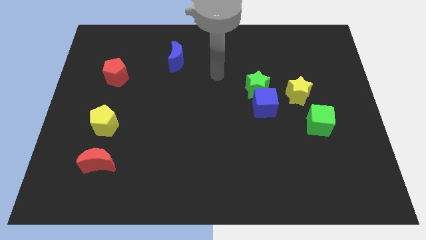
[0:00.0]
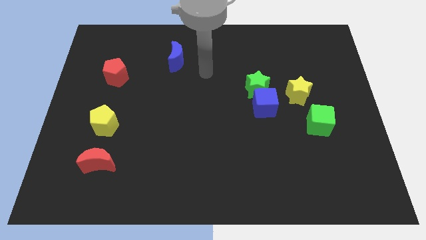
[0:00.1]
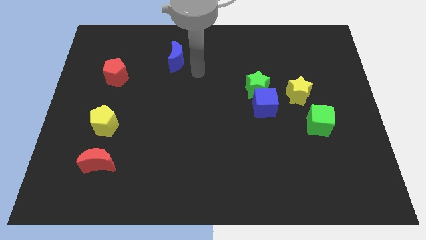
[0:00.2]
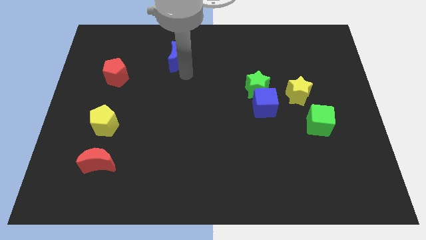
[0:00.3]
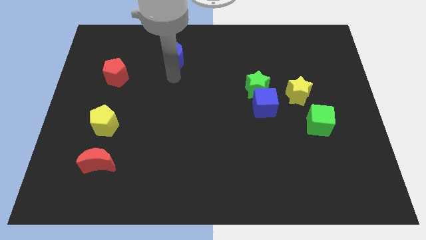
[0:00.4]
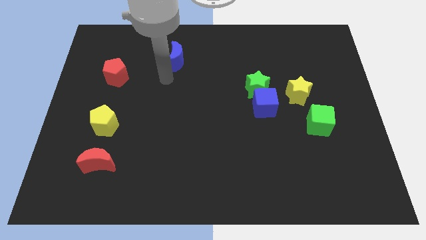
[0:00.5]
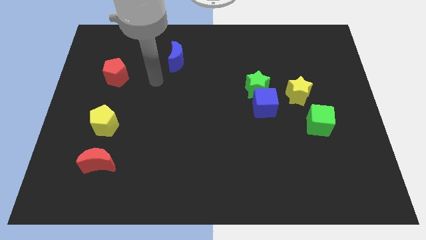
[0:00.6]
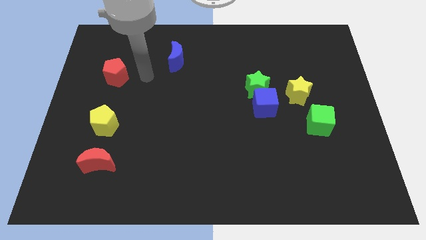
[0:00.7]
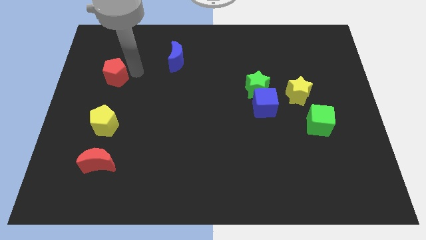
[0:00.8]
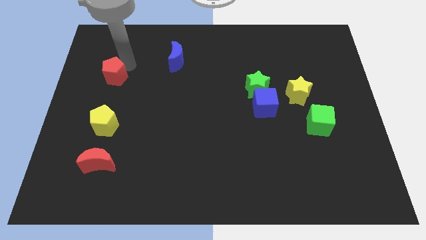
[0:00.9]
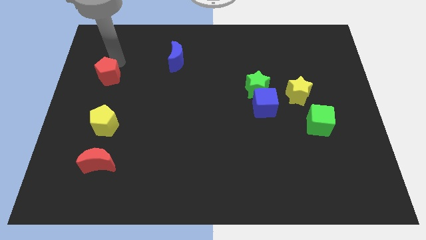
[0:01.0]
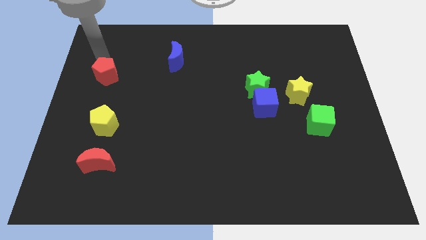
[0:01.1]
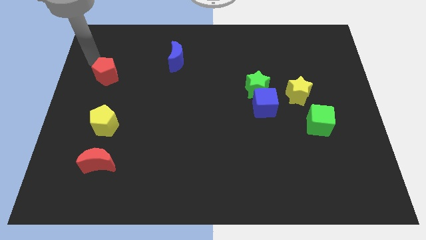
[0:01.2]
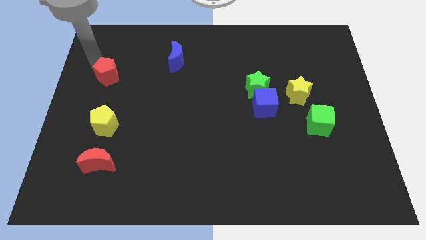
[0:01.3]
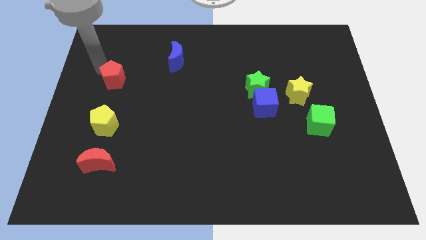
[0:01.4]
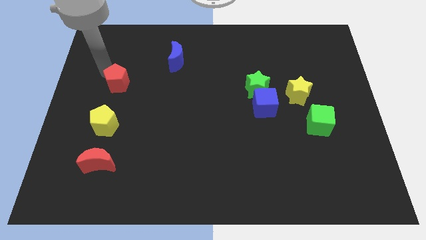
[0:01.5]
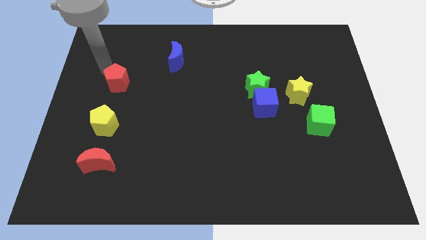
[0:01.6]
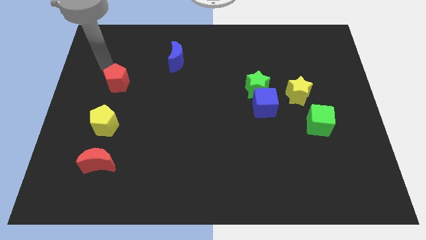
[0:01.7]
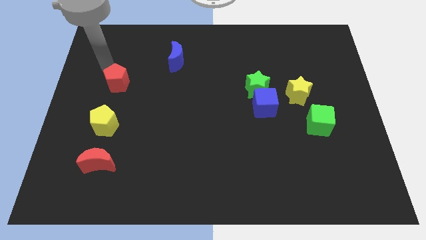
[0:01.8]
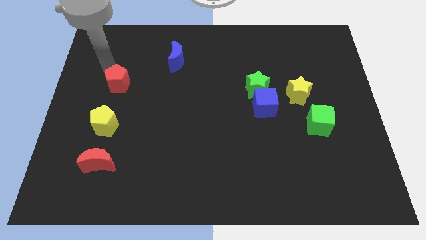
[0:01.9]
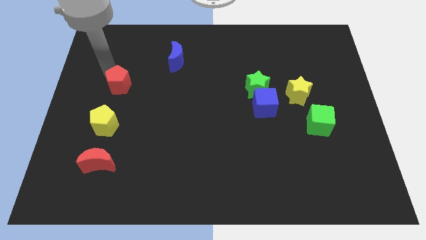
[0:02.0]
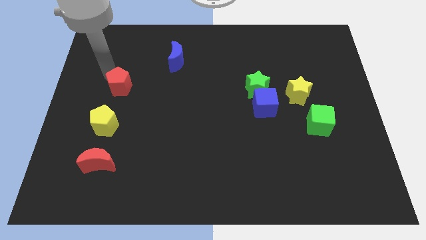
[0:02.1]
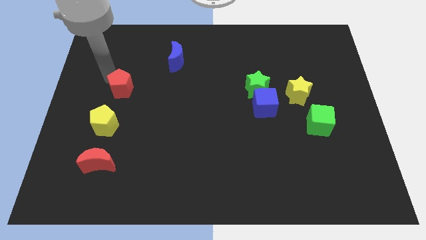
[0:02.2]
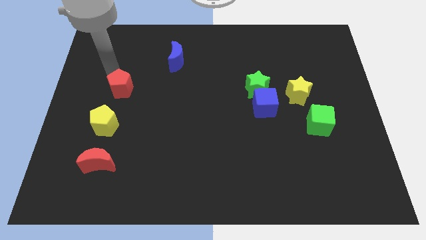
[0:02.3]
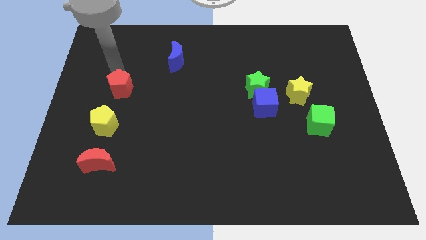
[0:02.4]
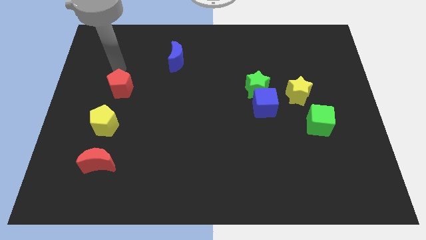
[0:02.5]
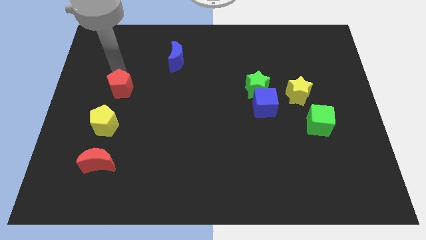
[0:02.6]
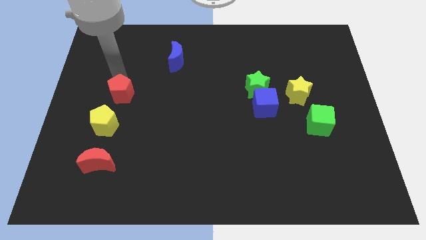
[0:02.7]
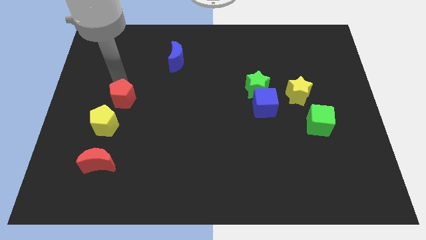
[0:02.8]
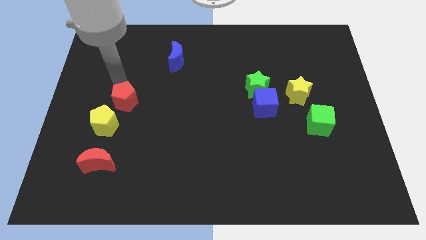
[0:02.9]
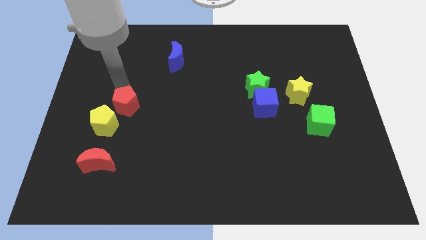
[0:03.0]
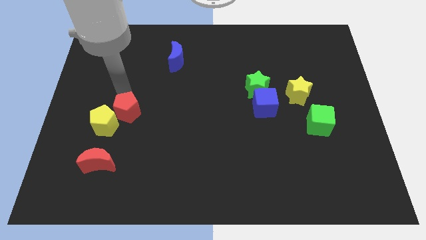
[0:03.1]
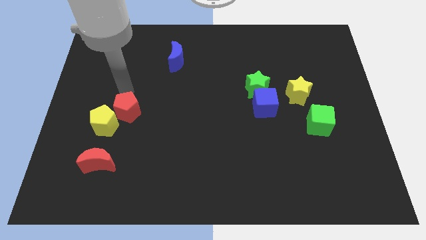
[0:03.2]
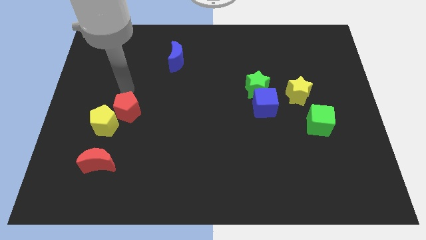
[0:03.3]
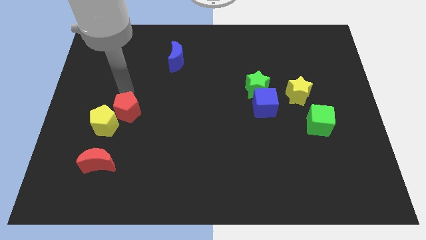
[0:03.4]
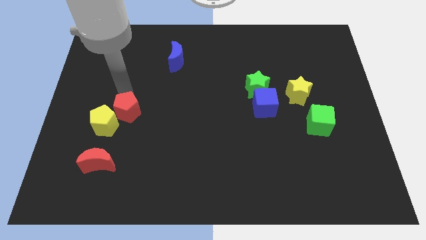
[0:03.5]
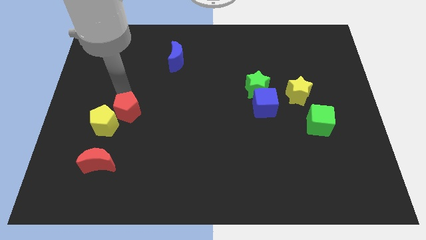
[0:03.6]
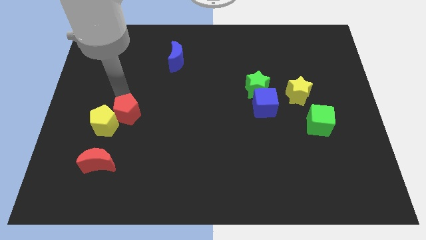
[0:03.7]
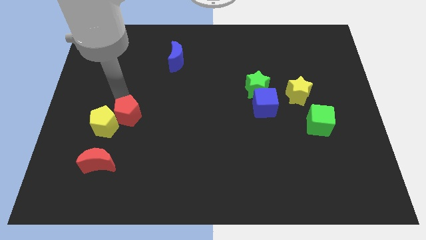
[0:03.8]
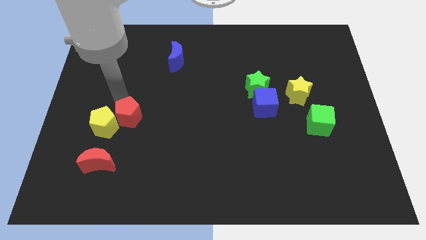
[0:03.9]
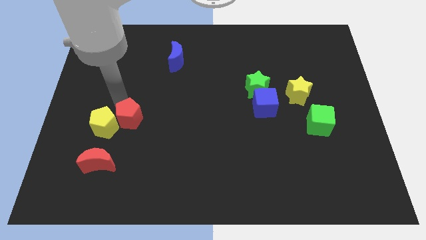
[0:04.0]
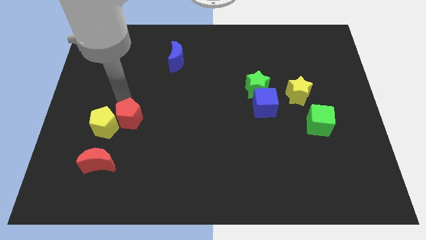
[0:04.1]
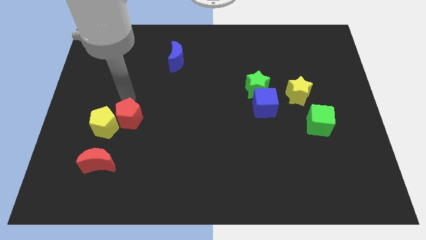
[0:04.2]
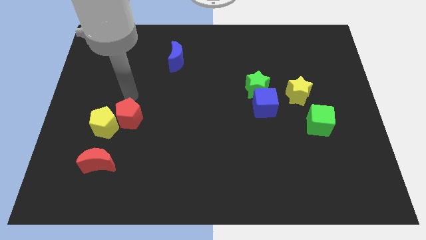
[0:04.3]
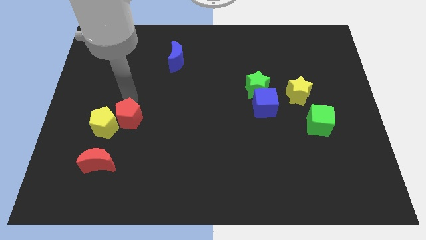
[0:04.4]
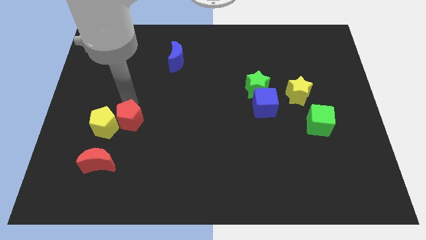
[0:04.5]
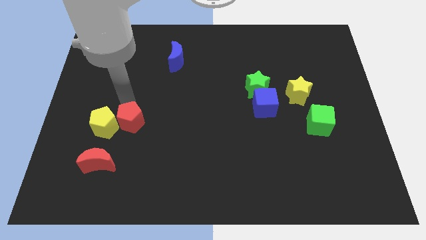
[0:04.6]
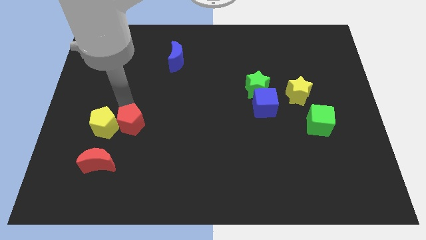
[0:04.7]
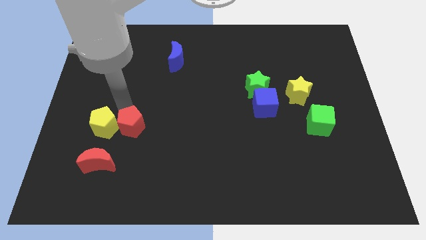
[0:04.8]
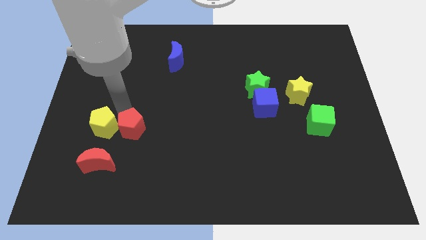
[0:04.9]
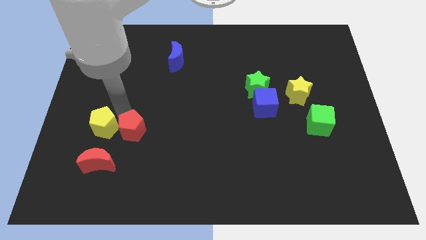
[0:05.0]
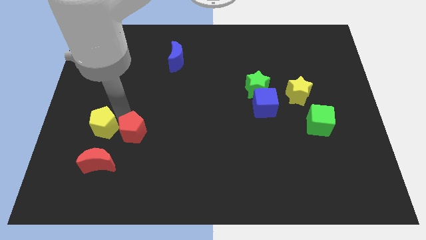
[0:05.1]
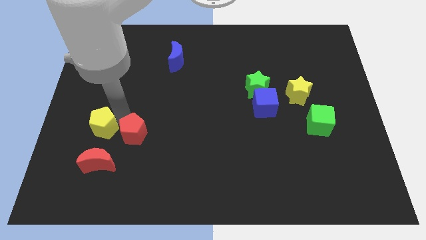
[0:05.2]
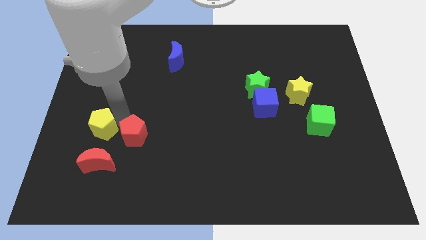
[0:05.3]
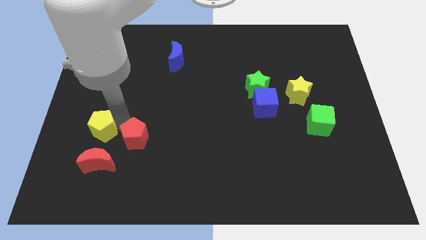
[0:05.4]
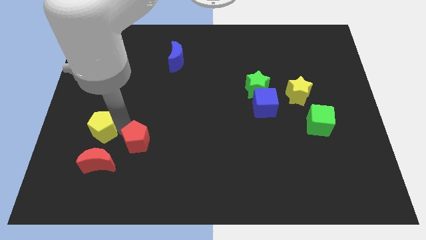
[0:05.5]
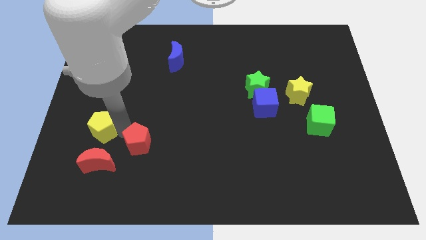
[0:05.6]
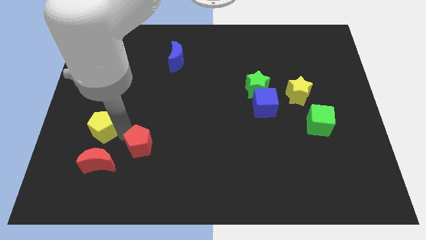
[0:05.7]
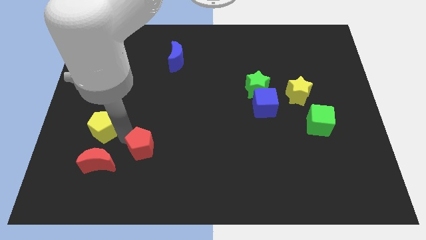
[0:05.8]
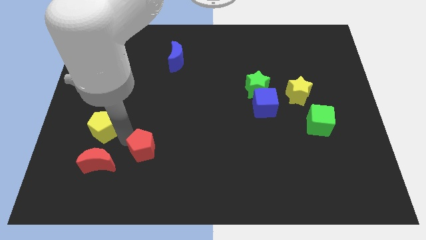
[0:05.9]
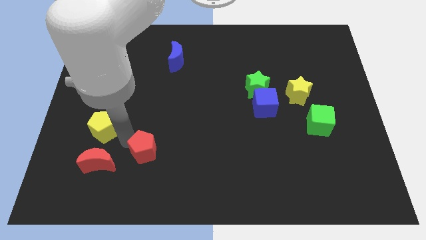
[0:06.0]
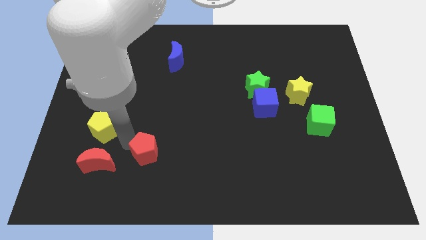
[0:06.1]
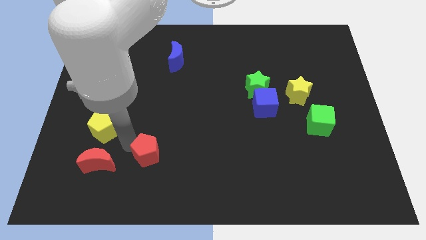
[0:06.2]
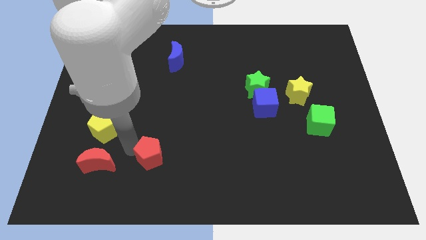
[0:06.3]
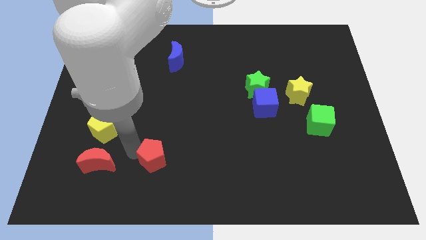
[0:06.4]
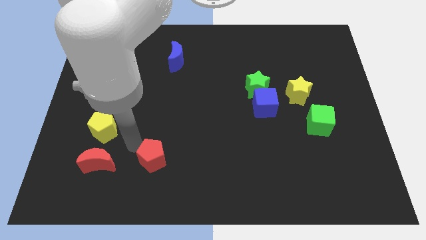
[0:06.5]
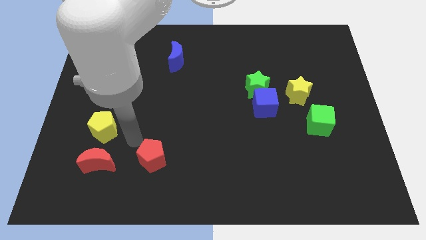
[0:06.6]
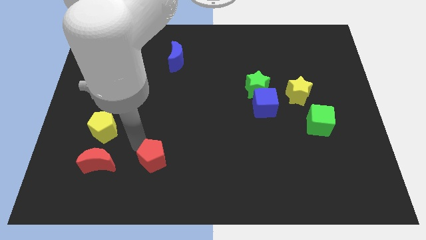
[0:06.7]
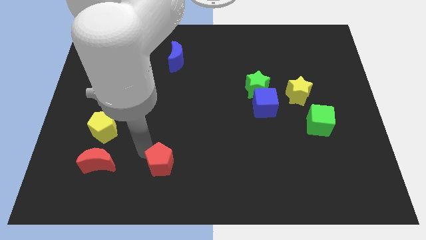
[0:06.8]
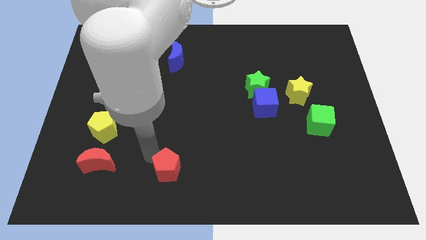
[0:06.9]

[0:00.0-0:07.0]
move the red pentagon to the bottom
